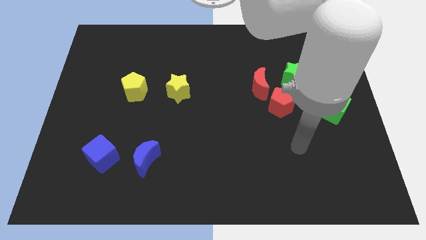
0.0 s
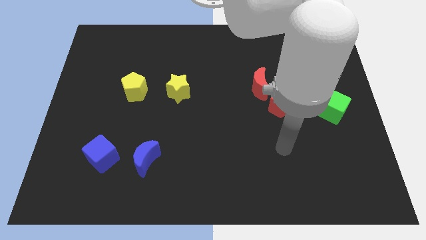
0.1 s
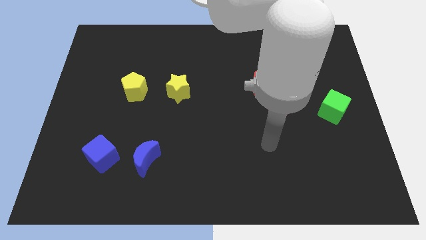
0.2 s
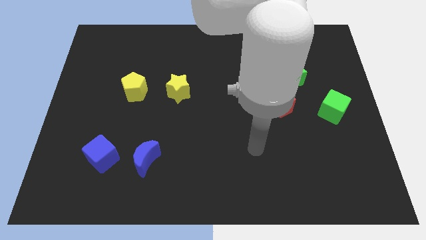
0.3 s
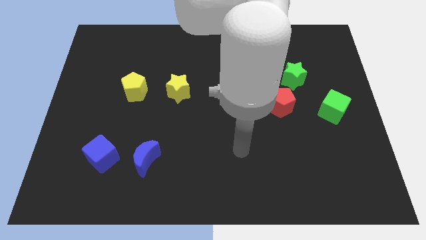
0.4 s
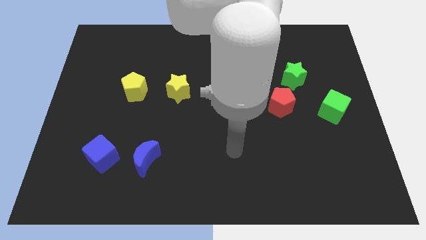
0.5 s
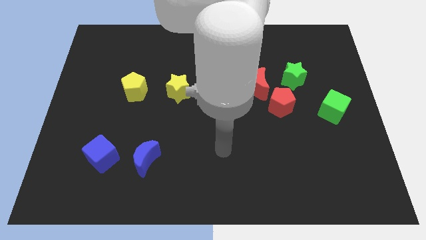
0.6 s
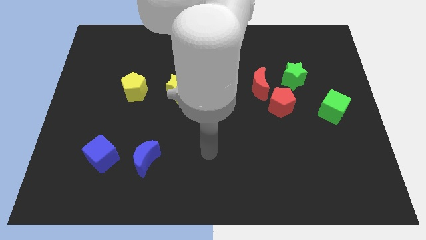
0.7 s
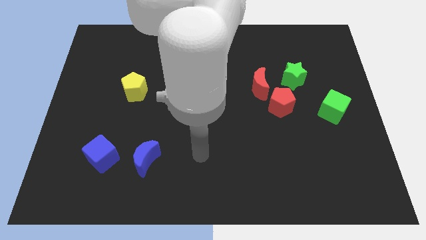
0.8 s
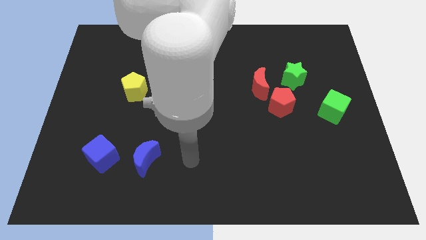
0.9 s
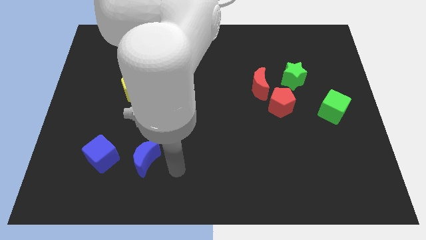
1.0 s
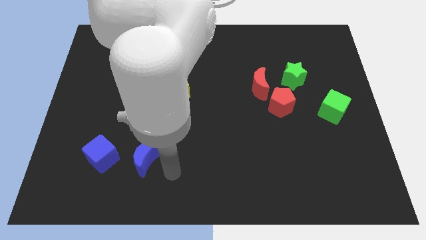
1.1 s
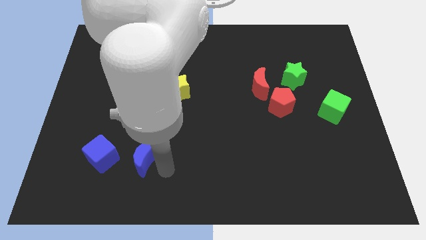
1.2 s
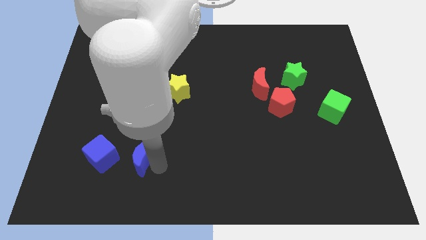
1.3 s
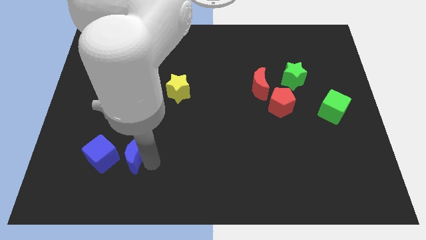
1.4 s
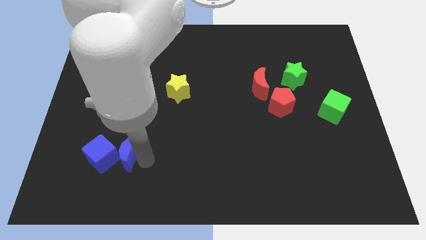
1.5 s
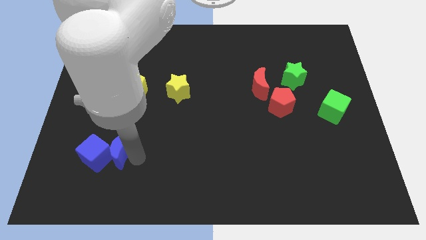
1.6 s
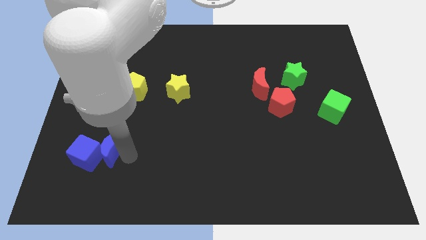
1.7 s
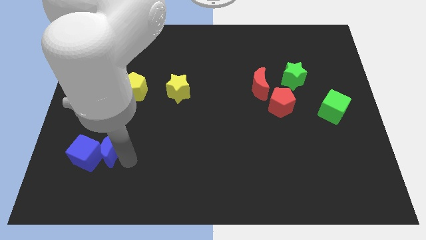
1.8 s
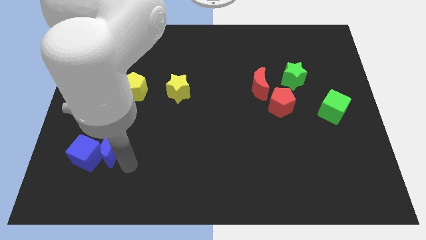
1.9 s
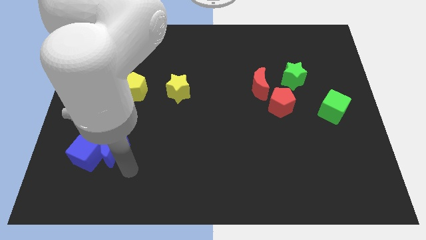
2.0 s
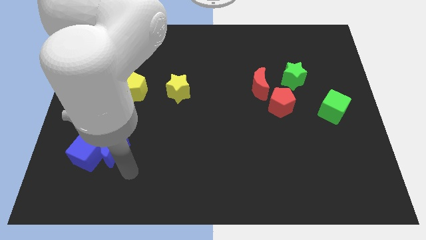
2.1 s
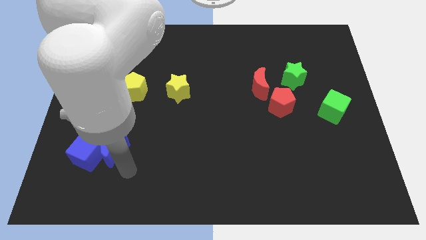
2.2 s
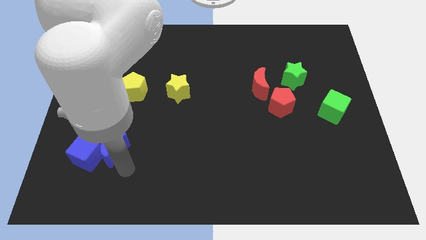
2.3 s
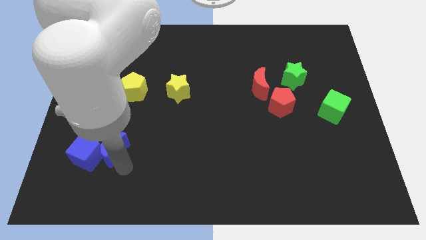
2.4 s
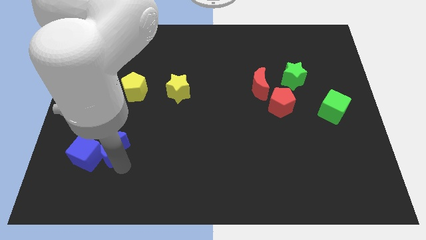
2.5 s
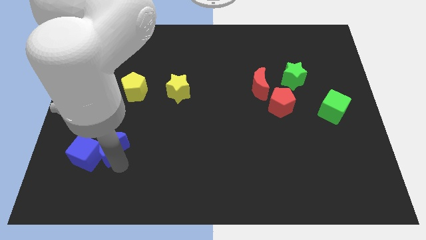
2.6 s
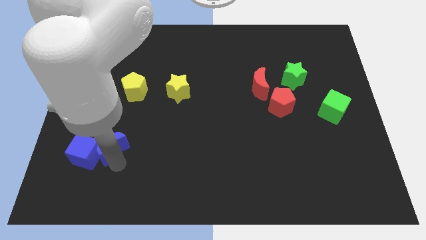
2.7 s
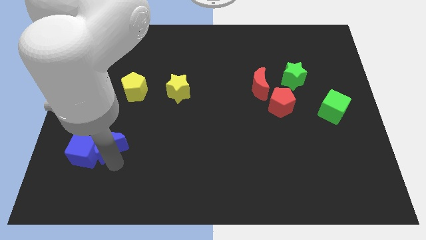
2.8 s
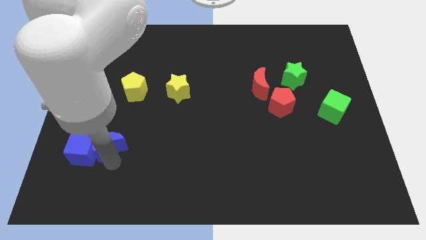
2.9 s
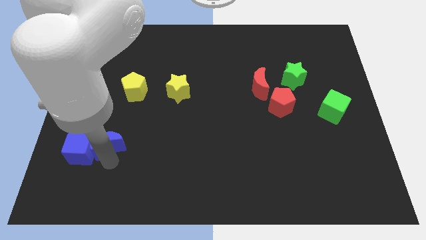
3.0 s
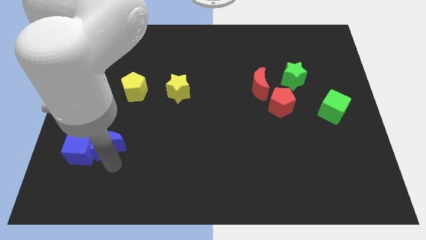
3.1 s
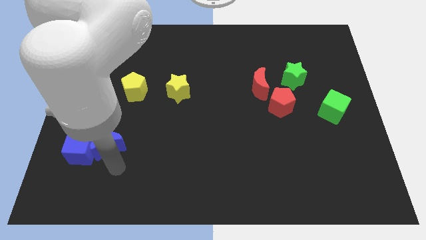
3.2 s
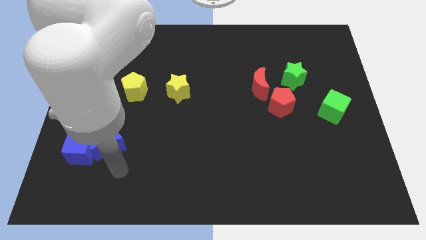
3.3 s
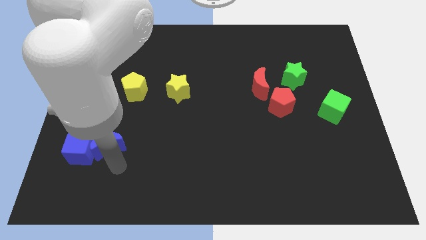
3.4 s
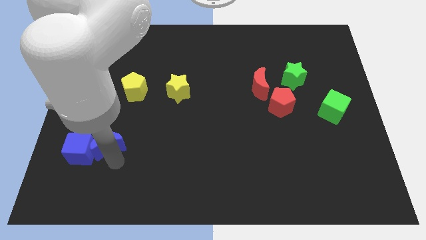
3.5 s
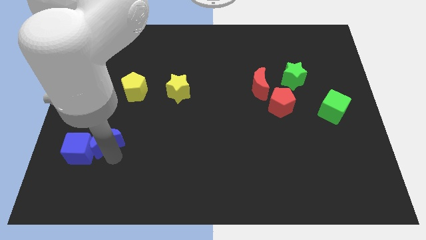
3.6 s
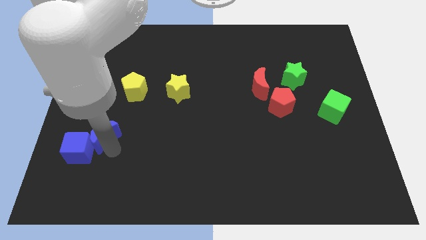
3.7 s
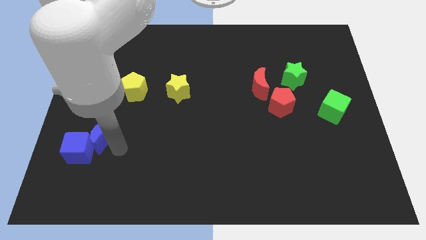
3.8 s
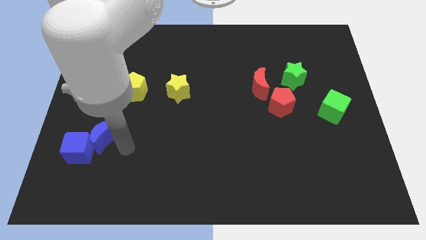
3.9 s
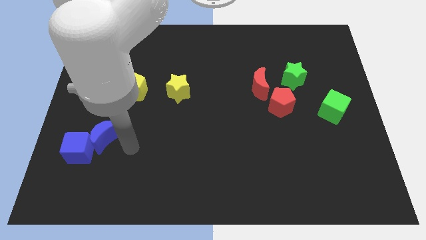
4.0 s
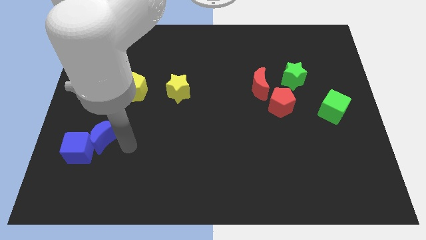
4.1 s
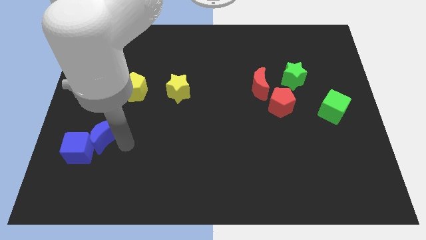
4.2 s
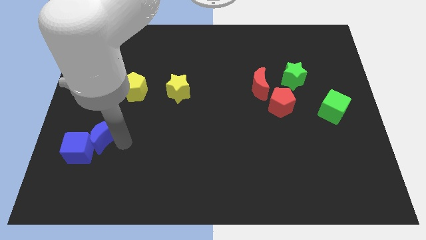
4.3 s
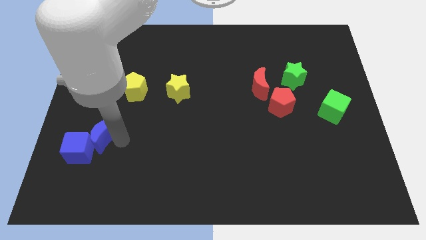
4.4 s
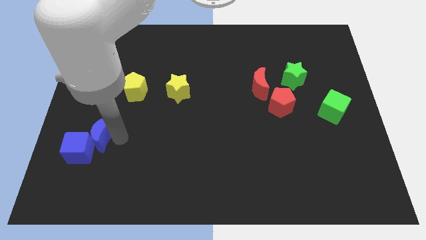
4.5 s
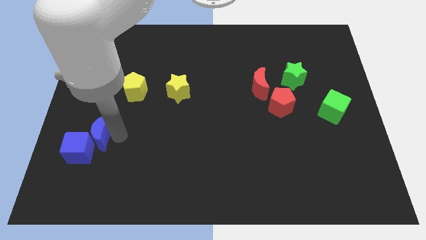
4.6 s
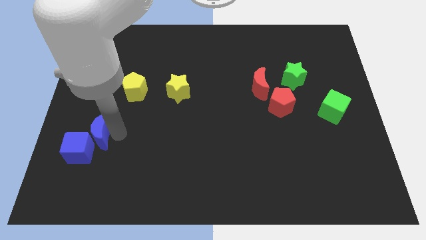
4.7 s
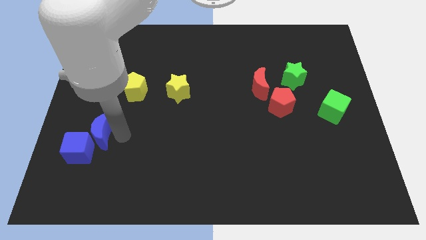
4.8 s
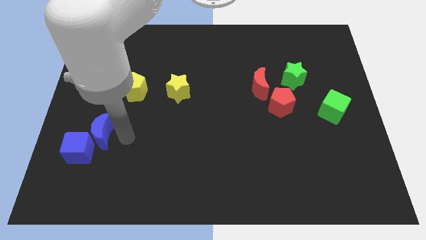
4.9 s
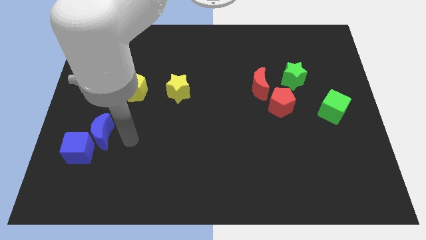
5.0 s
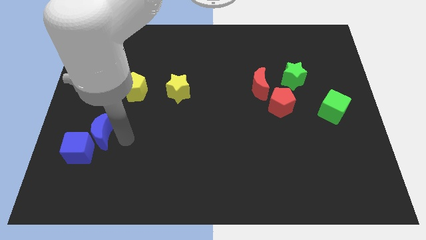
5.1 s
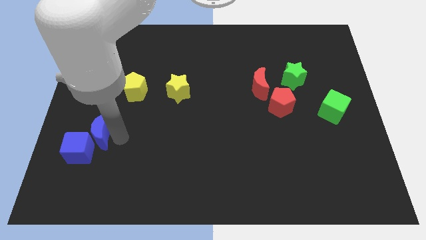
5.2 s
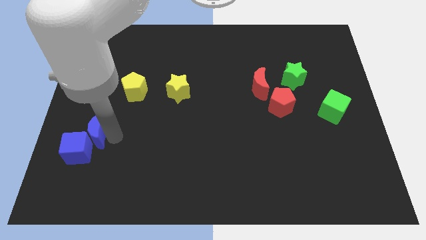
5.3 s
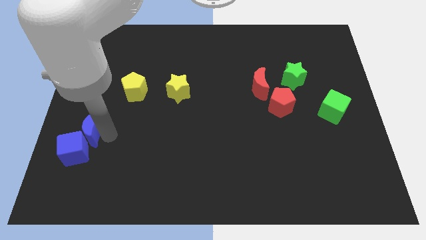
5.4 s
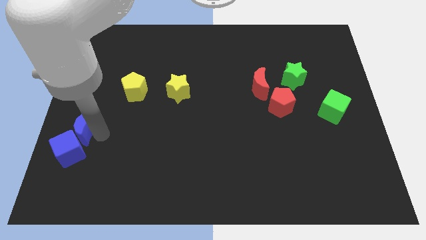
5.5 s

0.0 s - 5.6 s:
push the blue moon to the center left

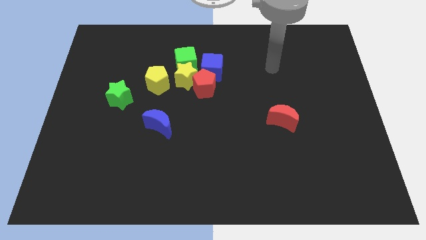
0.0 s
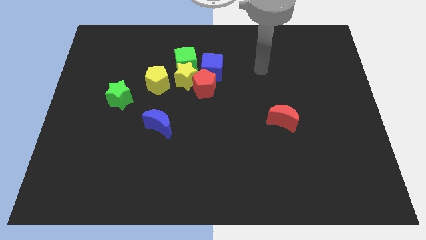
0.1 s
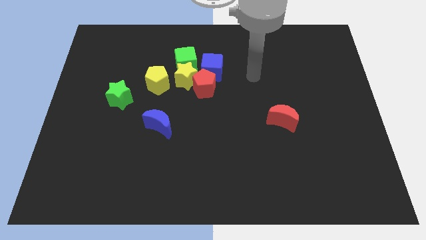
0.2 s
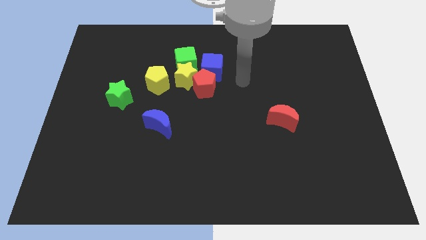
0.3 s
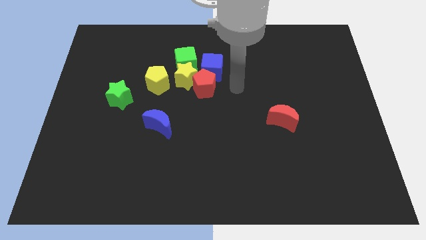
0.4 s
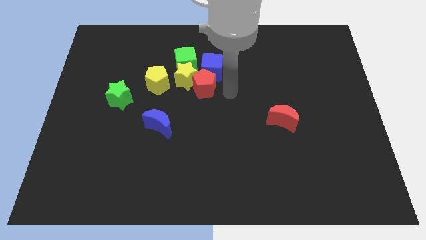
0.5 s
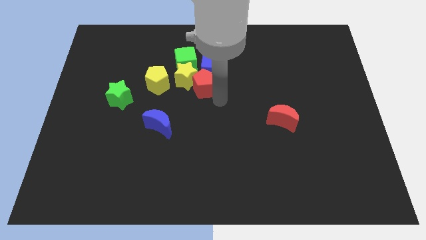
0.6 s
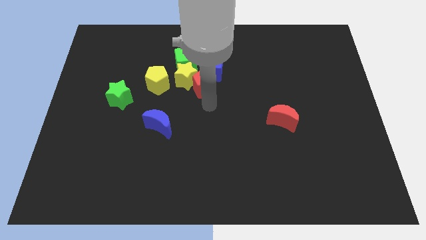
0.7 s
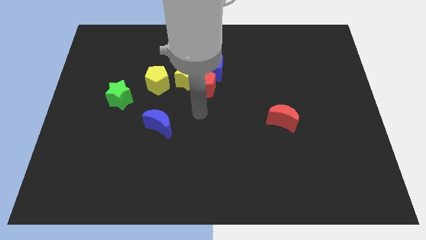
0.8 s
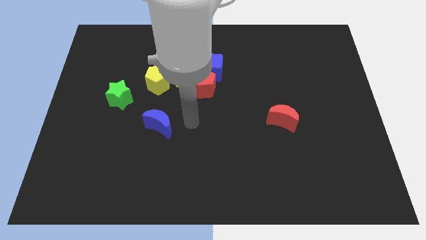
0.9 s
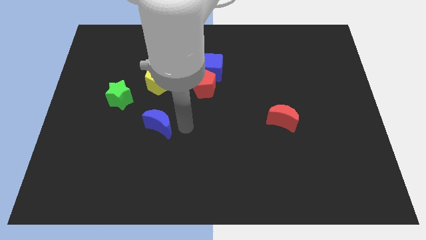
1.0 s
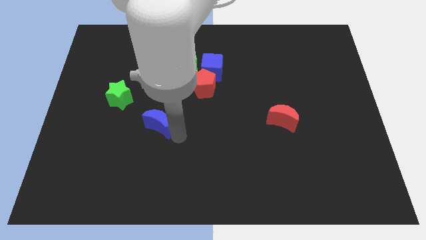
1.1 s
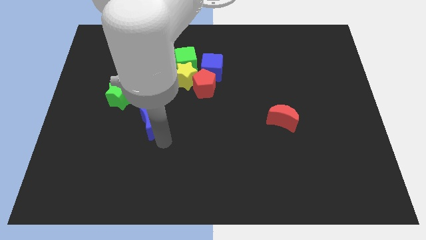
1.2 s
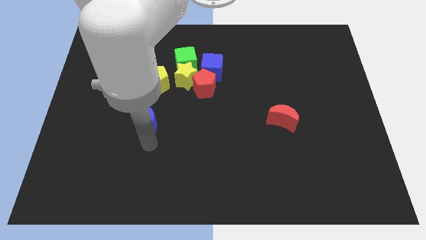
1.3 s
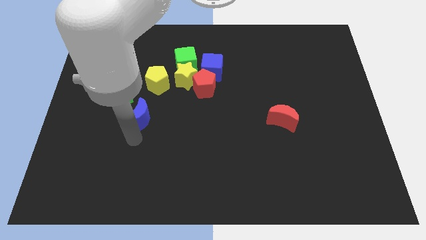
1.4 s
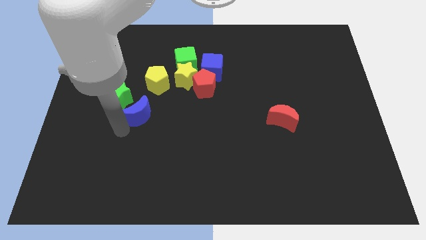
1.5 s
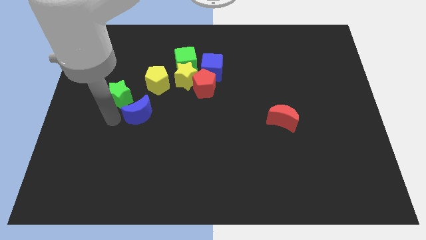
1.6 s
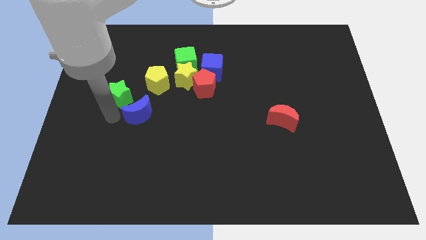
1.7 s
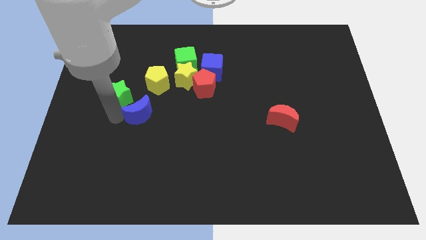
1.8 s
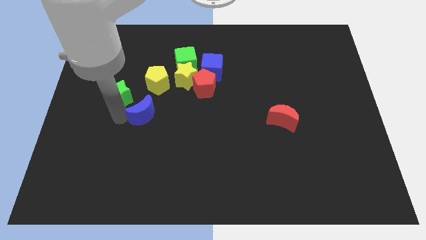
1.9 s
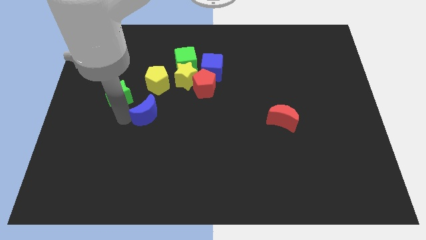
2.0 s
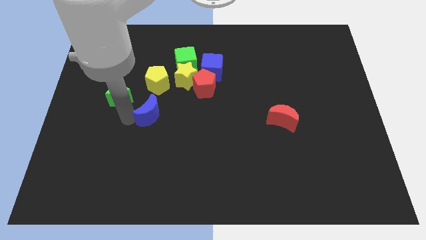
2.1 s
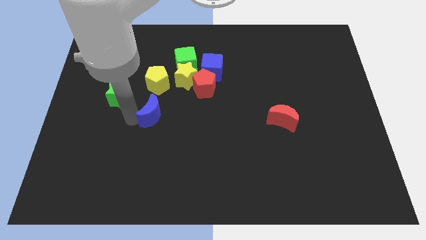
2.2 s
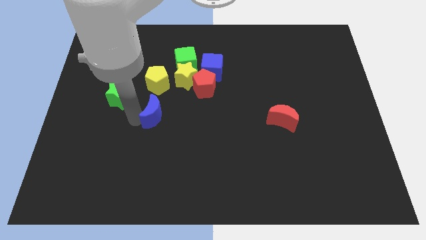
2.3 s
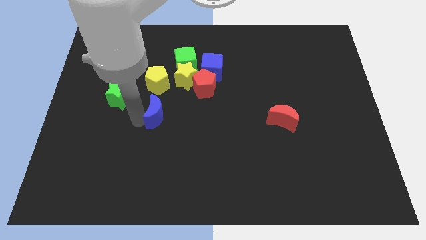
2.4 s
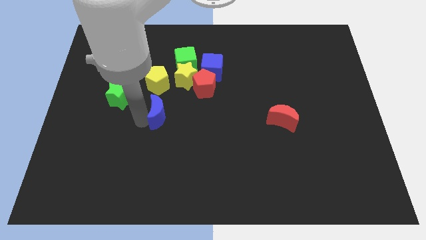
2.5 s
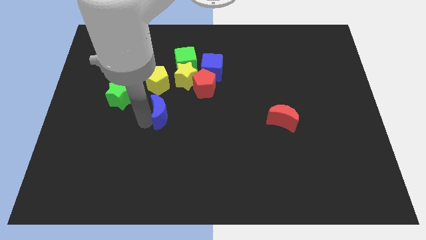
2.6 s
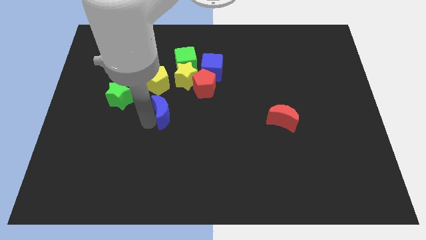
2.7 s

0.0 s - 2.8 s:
slide the blue moon to the middle of the board
